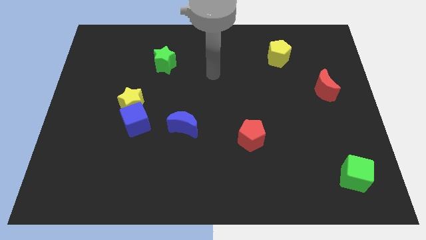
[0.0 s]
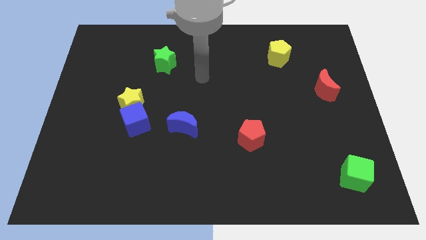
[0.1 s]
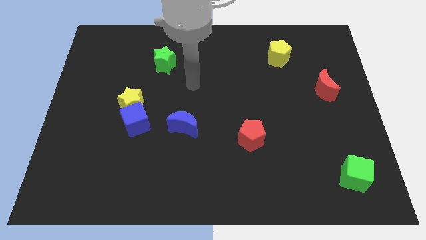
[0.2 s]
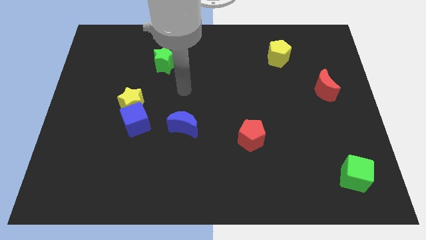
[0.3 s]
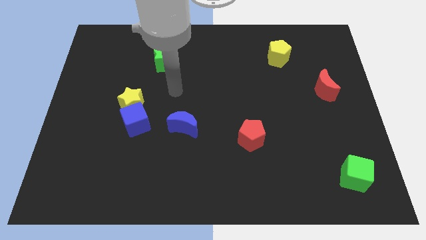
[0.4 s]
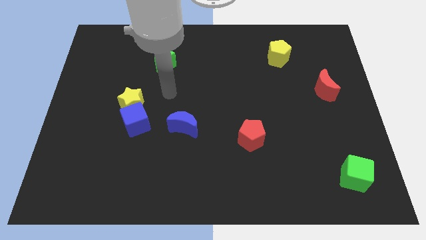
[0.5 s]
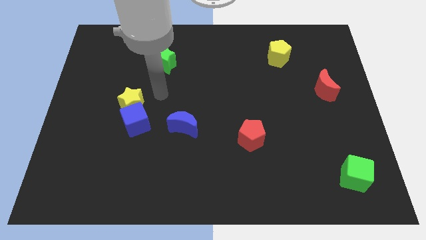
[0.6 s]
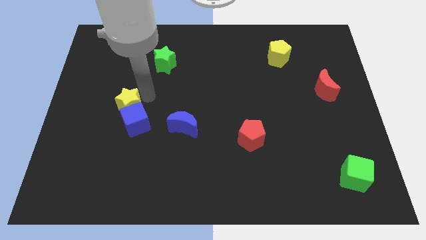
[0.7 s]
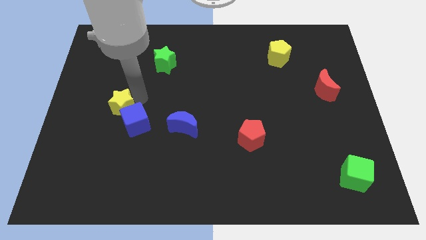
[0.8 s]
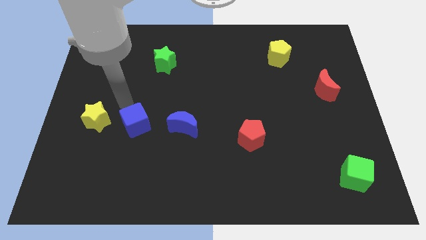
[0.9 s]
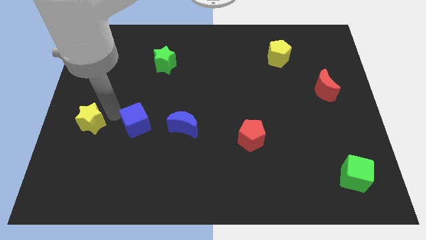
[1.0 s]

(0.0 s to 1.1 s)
pull the blue cube apart from the yellow star

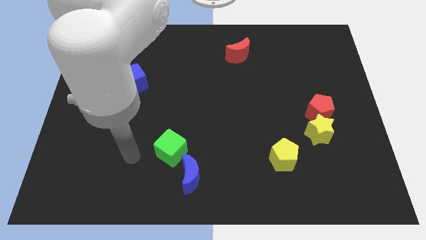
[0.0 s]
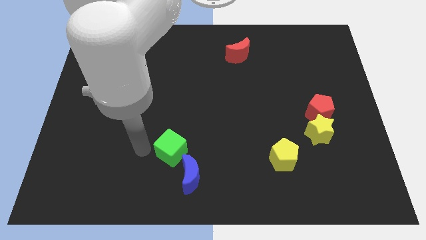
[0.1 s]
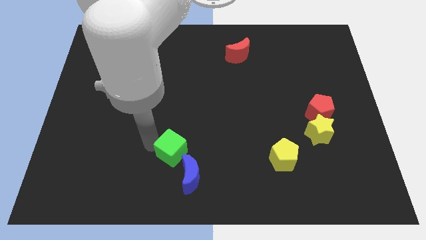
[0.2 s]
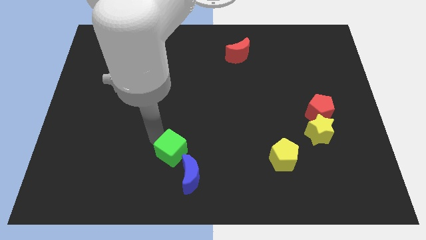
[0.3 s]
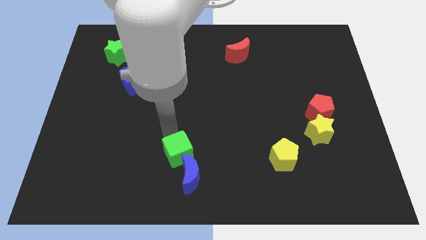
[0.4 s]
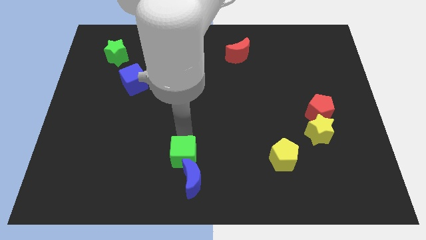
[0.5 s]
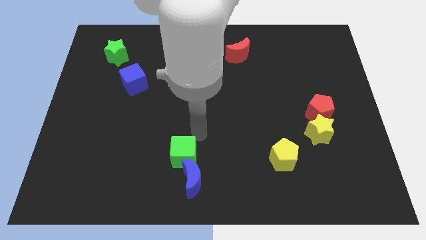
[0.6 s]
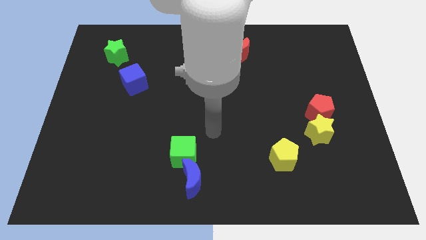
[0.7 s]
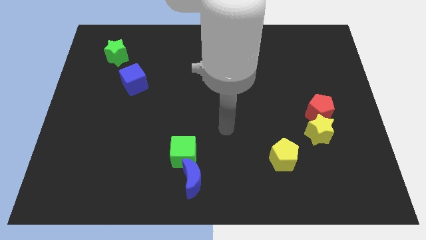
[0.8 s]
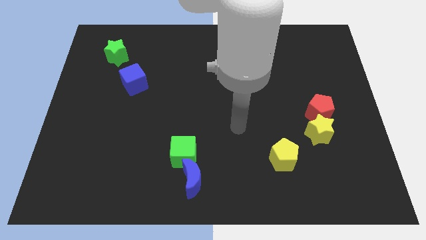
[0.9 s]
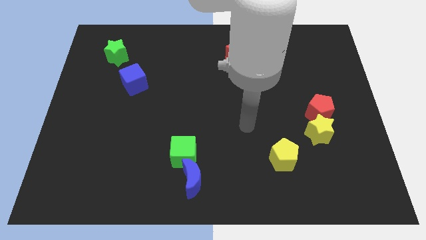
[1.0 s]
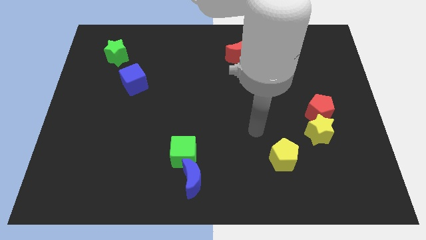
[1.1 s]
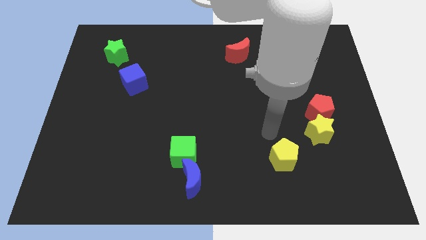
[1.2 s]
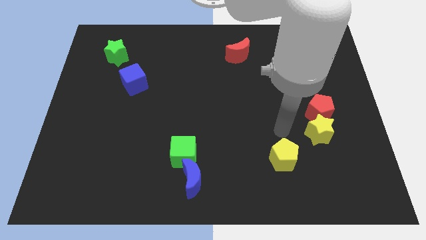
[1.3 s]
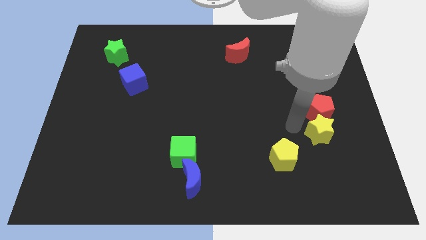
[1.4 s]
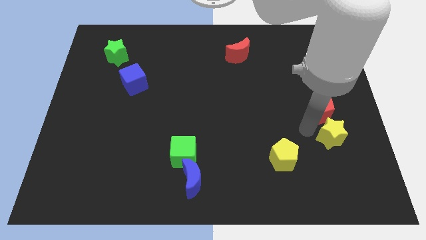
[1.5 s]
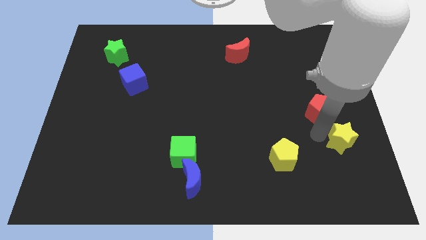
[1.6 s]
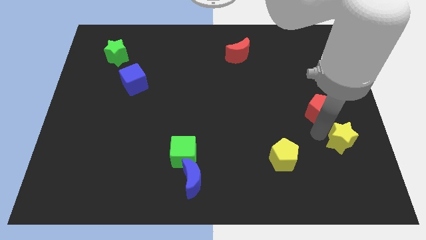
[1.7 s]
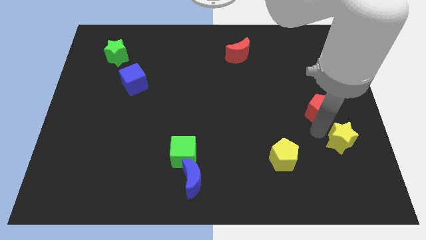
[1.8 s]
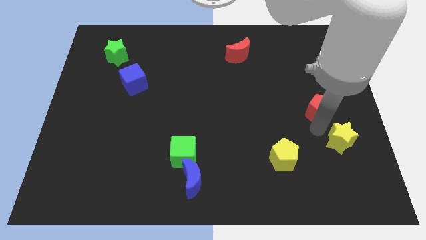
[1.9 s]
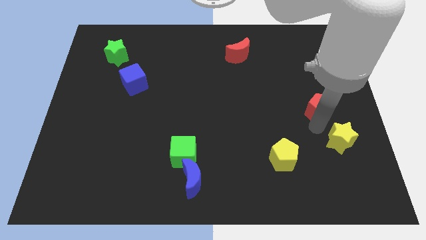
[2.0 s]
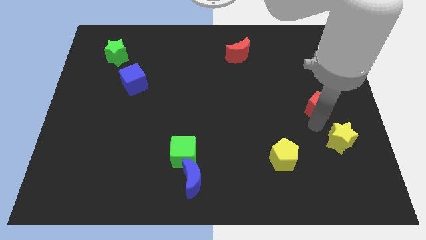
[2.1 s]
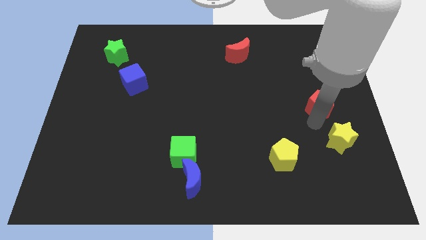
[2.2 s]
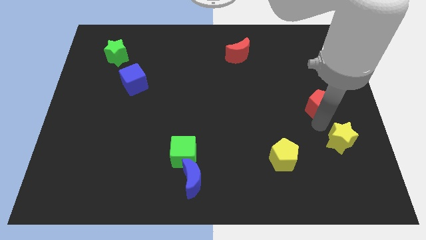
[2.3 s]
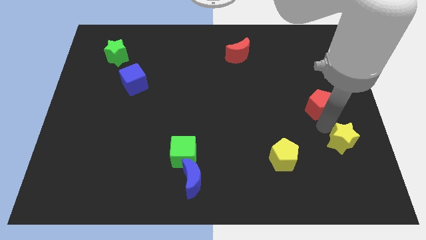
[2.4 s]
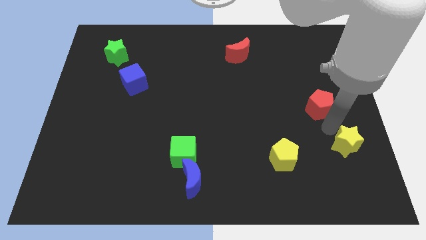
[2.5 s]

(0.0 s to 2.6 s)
pull the red pentagon apart from the yellow star

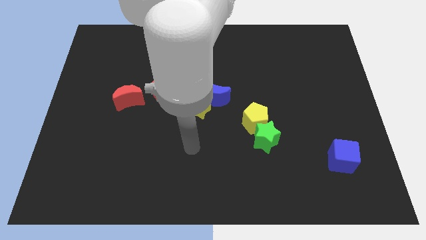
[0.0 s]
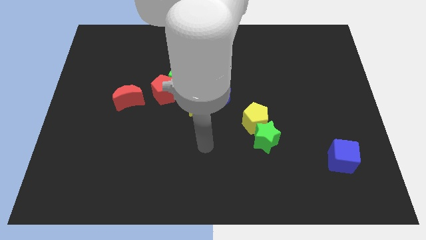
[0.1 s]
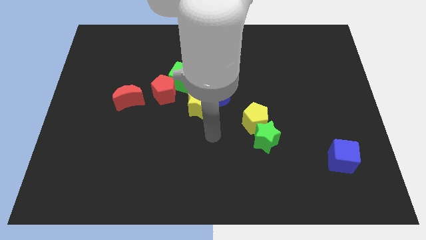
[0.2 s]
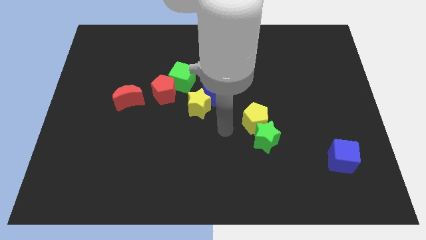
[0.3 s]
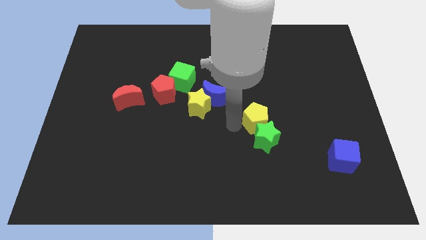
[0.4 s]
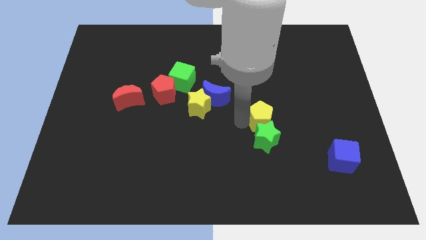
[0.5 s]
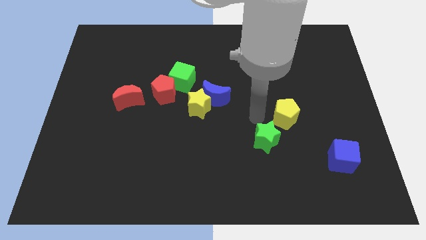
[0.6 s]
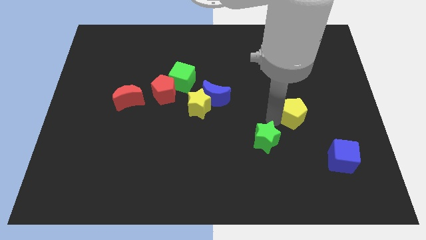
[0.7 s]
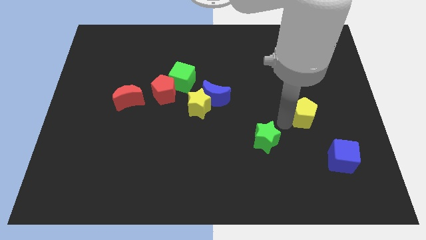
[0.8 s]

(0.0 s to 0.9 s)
move the green star away from the yellow pentagon

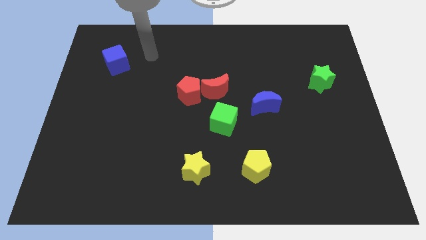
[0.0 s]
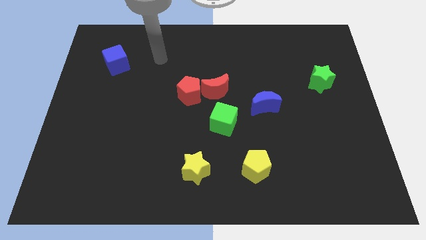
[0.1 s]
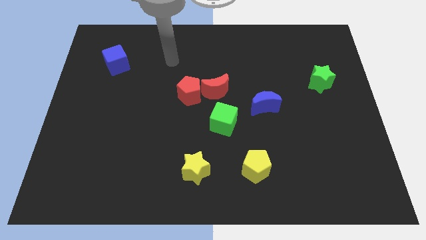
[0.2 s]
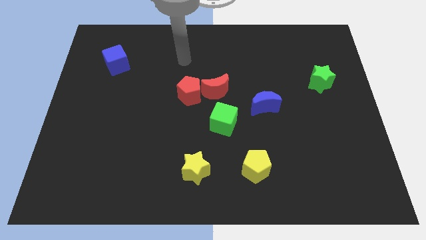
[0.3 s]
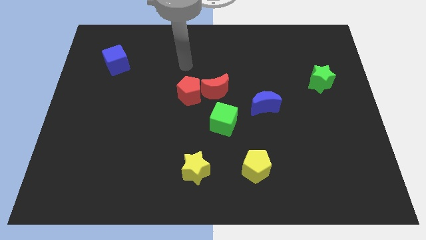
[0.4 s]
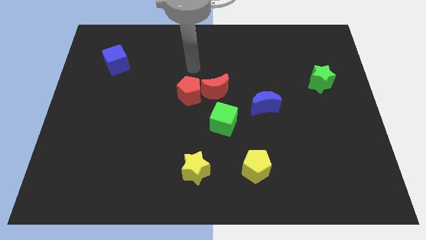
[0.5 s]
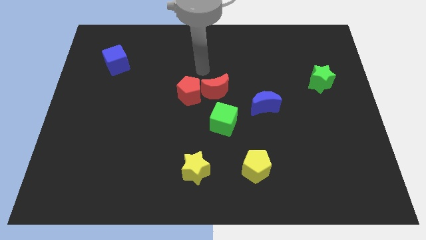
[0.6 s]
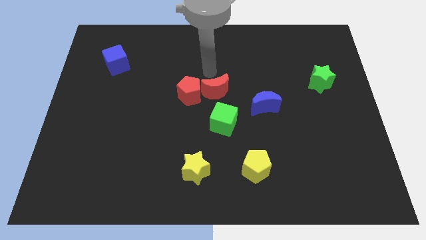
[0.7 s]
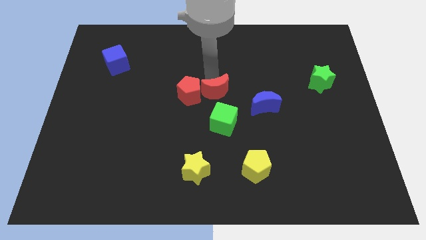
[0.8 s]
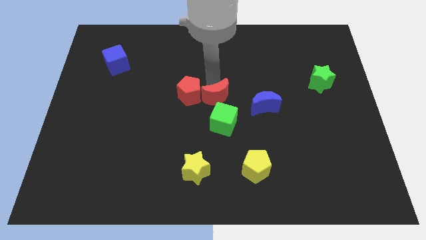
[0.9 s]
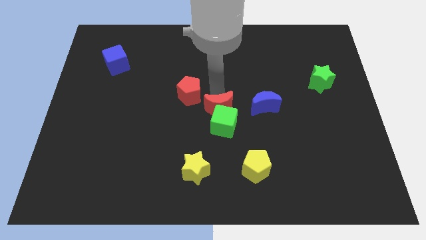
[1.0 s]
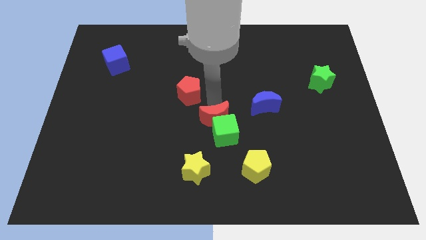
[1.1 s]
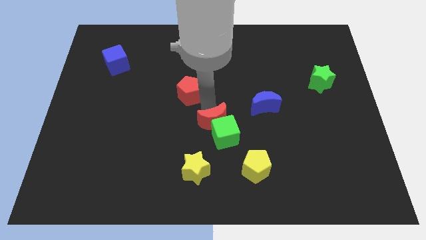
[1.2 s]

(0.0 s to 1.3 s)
separate the red pentagon from the red moon

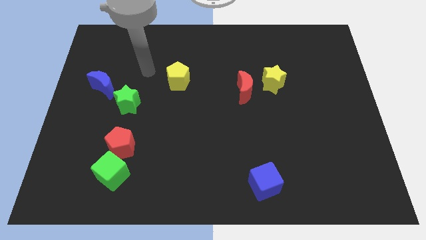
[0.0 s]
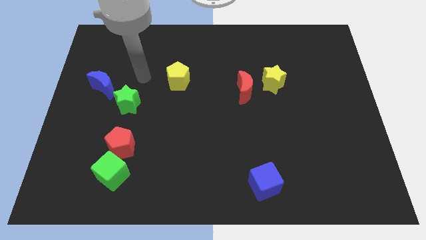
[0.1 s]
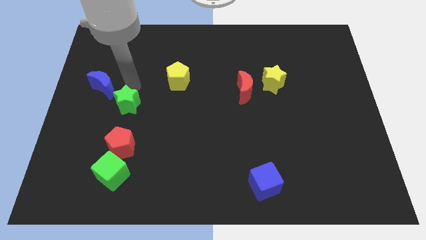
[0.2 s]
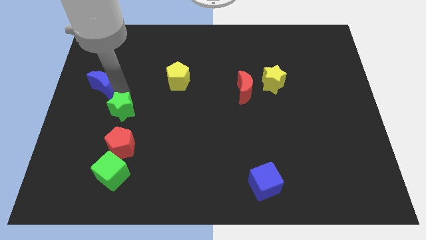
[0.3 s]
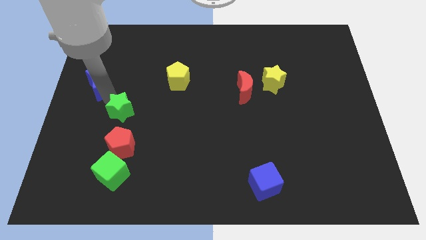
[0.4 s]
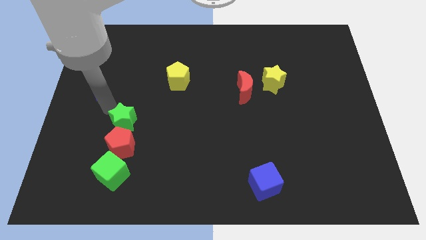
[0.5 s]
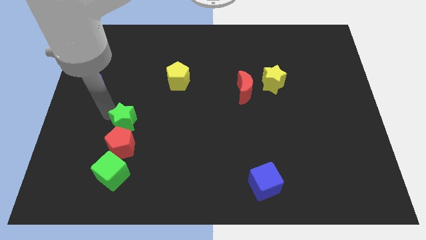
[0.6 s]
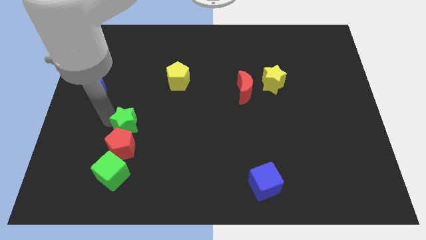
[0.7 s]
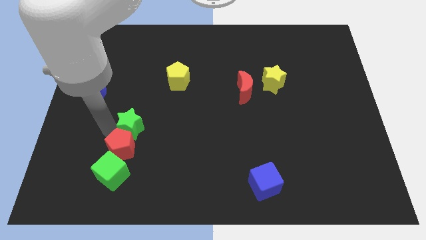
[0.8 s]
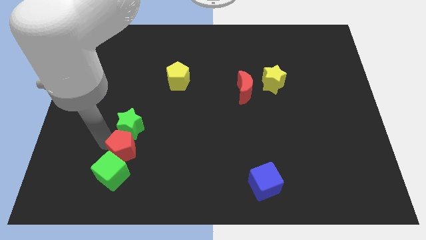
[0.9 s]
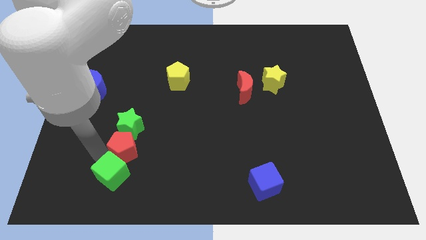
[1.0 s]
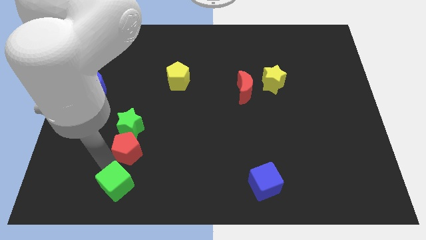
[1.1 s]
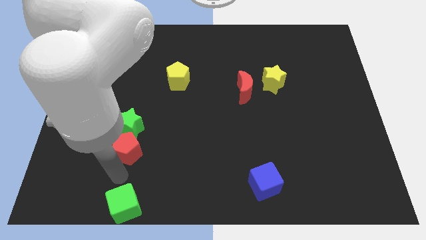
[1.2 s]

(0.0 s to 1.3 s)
pull the red pentagon apart from the green cube

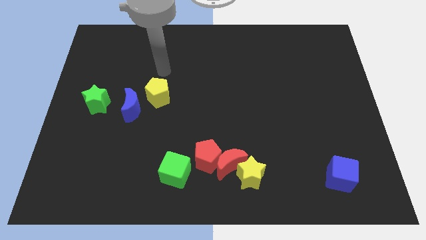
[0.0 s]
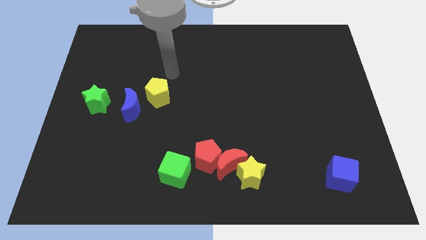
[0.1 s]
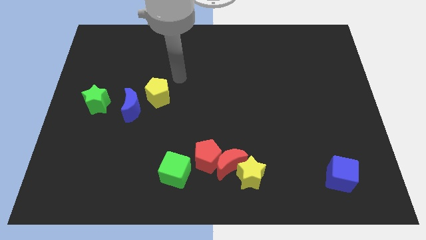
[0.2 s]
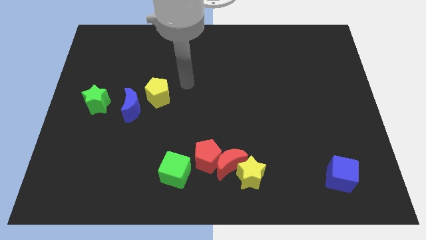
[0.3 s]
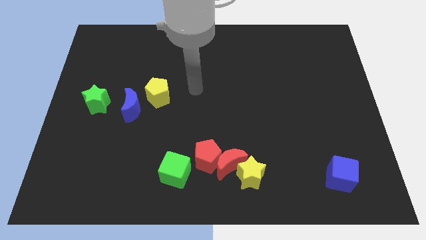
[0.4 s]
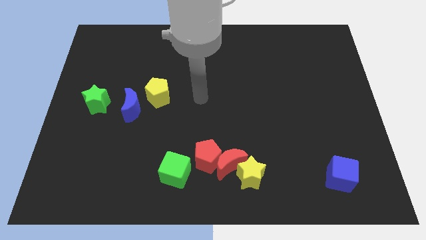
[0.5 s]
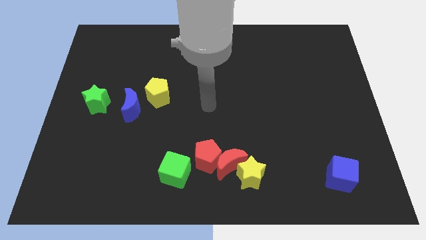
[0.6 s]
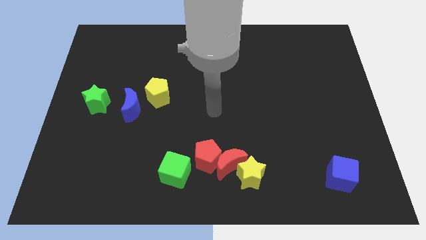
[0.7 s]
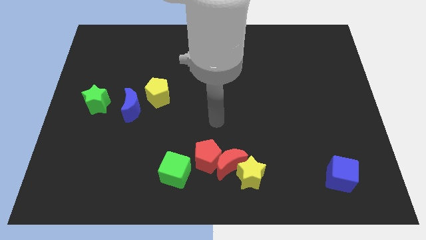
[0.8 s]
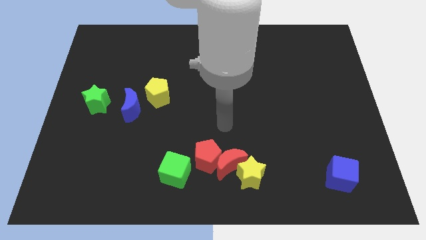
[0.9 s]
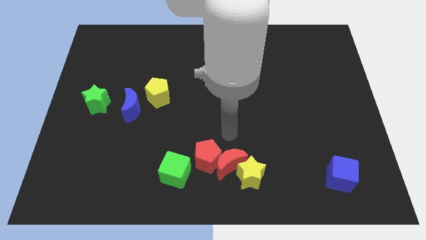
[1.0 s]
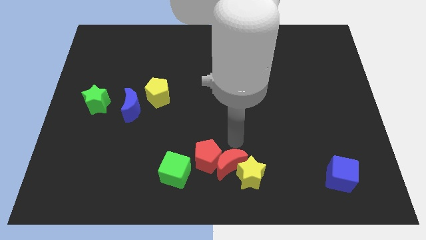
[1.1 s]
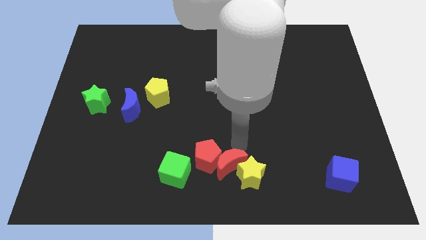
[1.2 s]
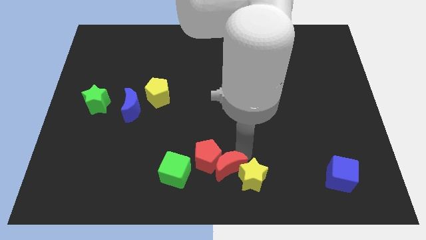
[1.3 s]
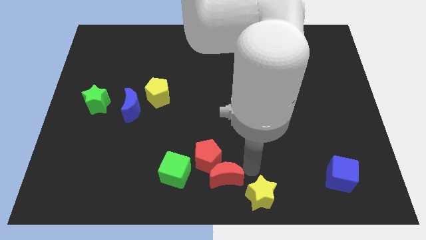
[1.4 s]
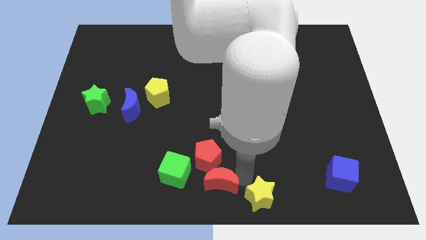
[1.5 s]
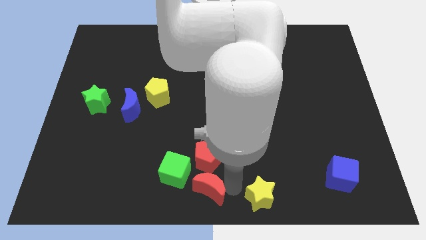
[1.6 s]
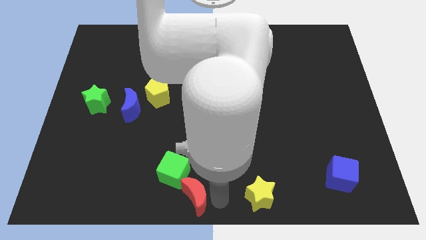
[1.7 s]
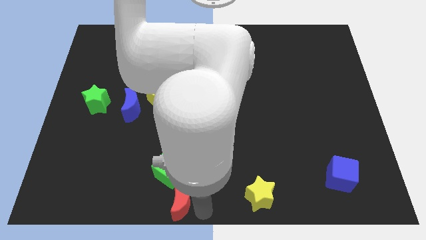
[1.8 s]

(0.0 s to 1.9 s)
move the red moon away from the red pentagon and yellow star

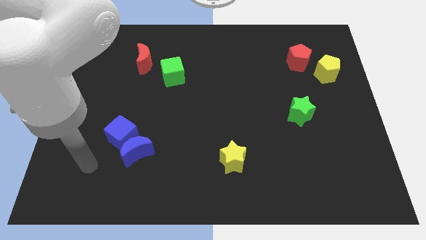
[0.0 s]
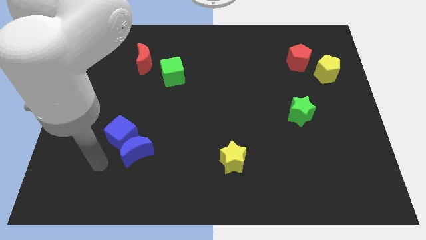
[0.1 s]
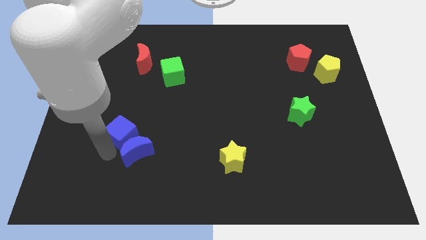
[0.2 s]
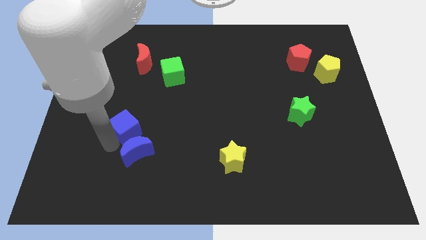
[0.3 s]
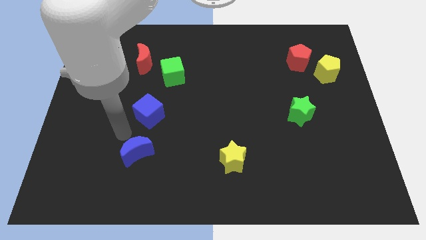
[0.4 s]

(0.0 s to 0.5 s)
pull the blue moon apart from the blue cube
